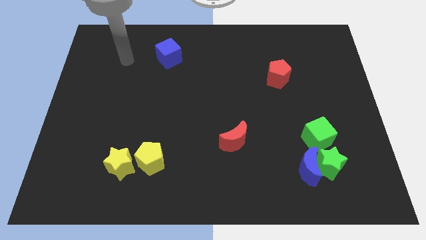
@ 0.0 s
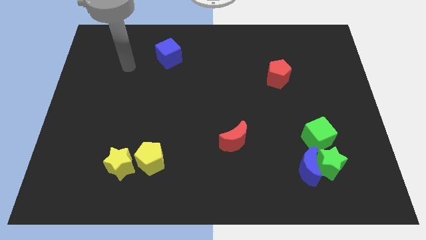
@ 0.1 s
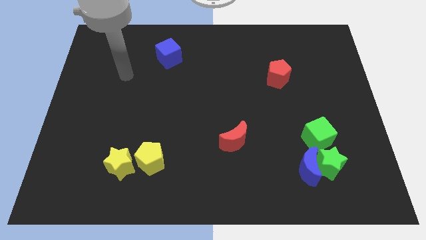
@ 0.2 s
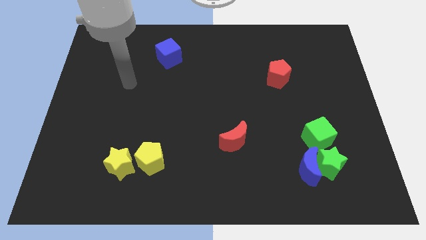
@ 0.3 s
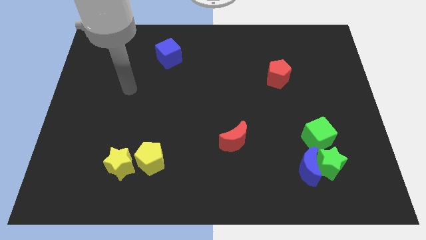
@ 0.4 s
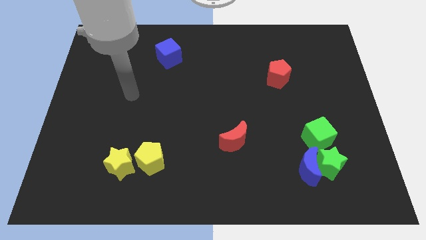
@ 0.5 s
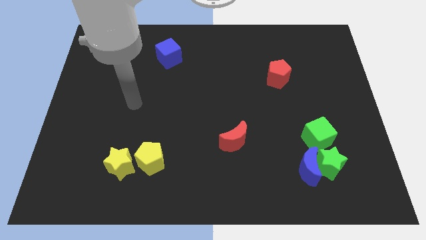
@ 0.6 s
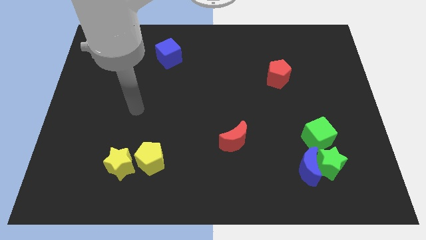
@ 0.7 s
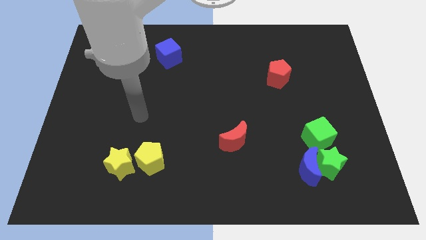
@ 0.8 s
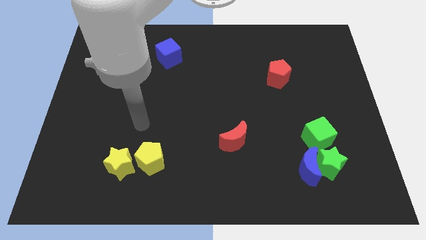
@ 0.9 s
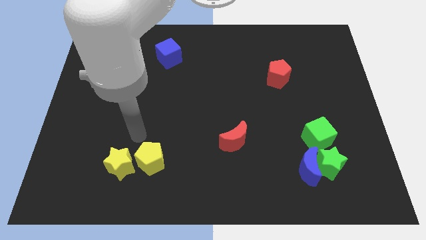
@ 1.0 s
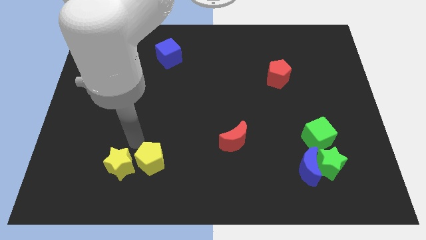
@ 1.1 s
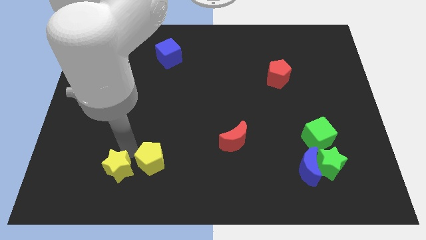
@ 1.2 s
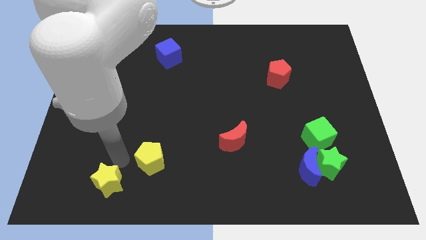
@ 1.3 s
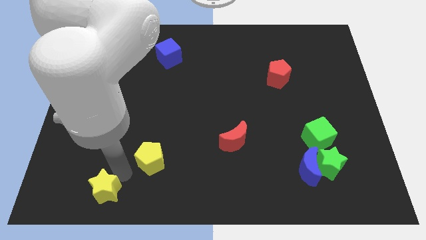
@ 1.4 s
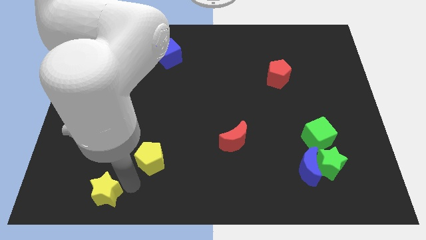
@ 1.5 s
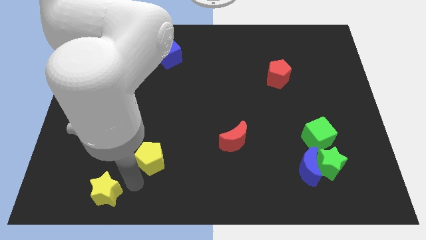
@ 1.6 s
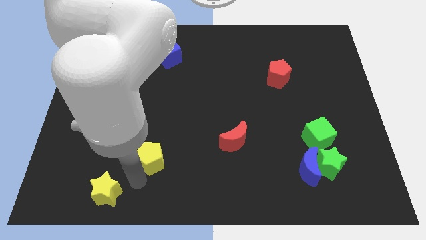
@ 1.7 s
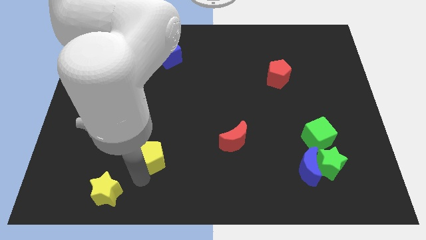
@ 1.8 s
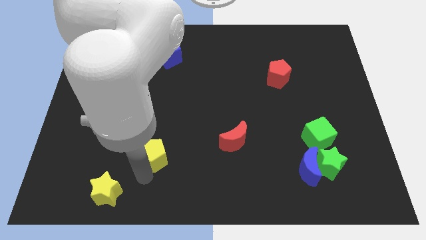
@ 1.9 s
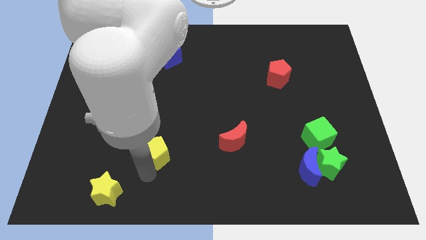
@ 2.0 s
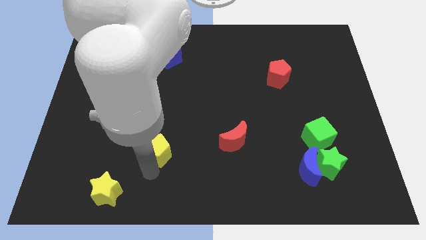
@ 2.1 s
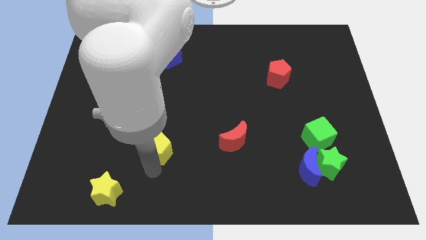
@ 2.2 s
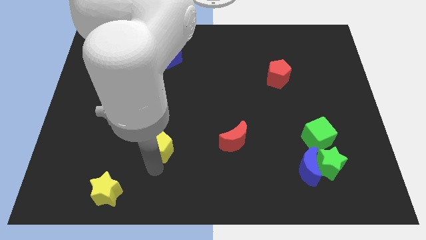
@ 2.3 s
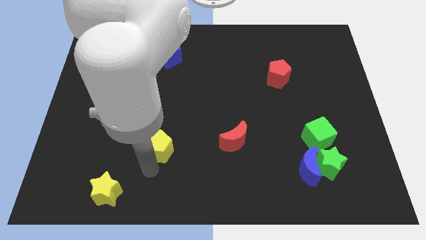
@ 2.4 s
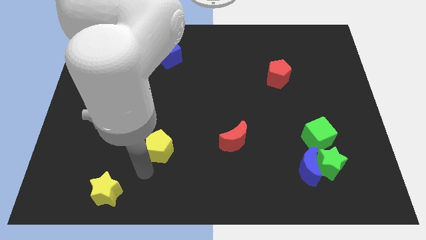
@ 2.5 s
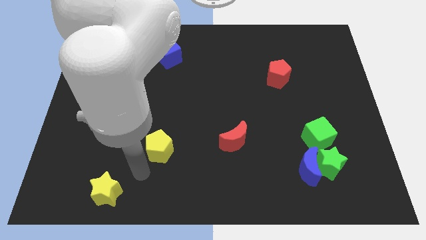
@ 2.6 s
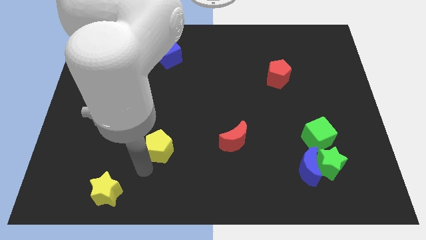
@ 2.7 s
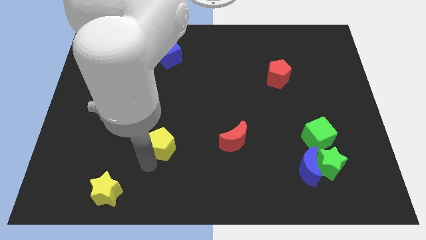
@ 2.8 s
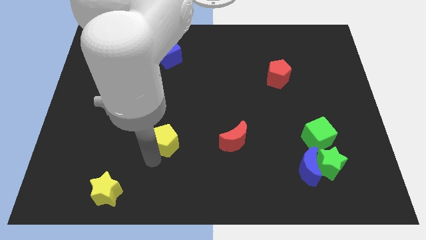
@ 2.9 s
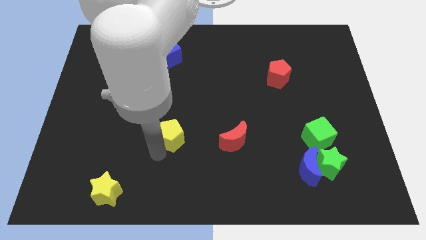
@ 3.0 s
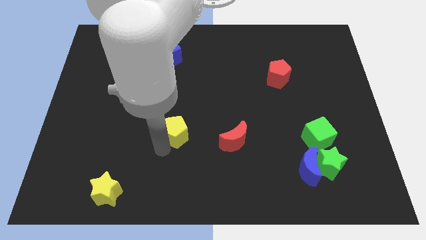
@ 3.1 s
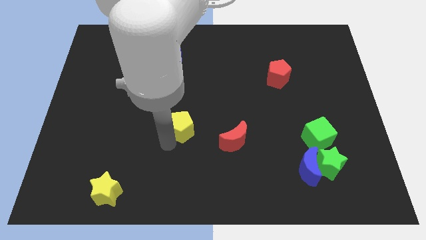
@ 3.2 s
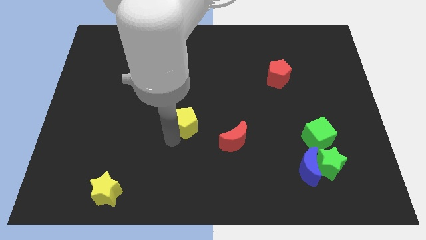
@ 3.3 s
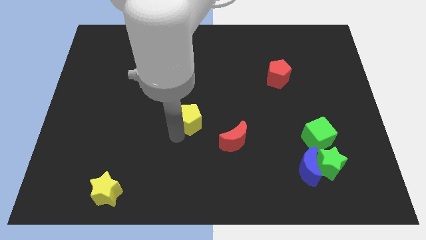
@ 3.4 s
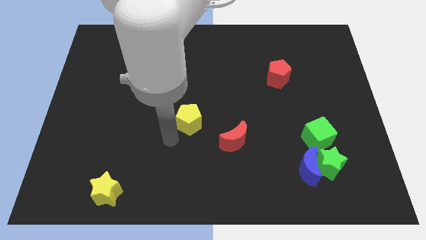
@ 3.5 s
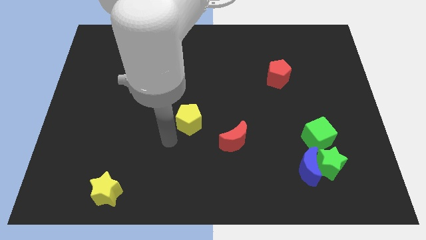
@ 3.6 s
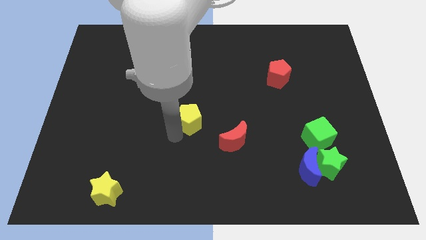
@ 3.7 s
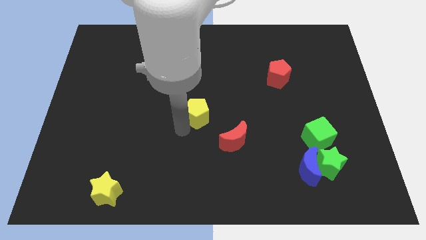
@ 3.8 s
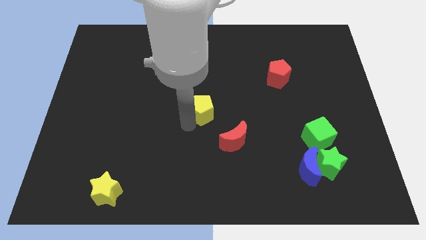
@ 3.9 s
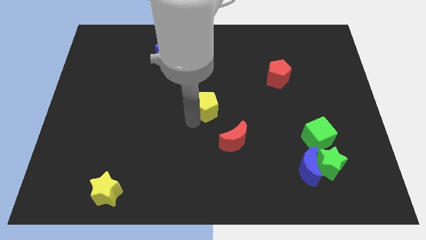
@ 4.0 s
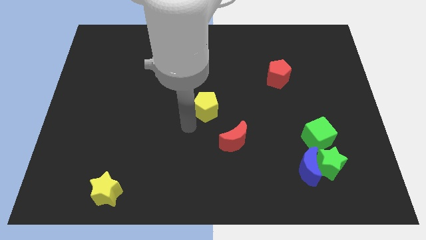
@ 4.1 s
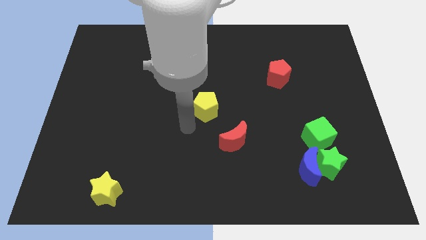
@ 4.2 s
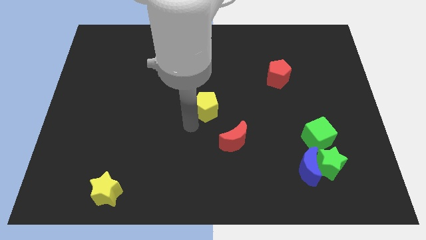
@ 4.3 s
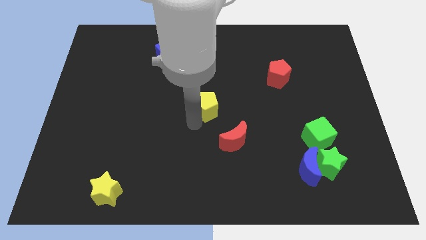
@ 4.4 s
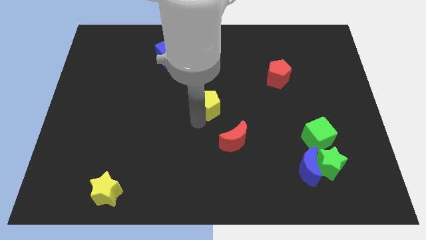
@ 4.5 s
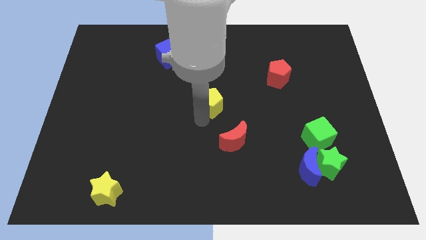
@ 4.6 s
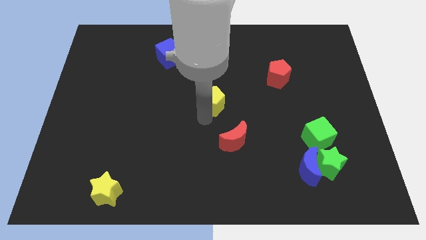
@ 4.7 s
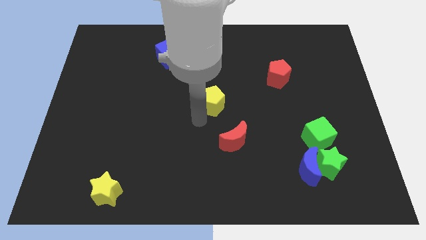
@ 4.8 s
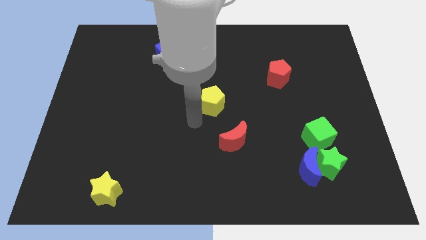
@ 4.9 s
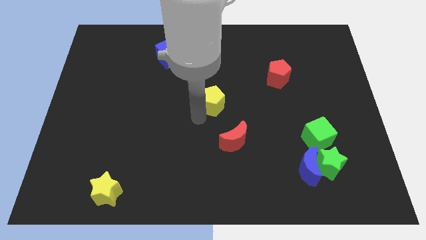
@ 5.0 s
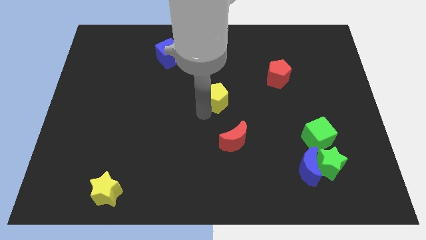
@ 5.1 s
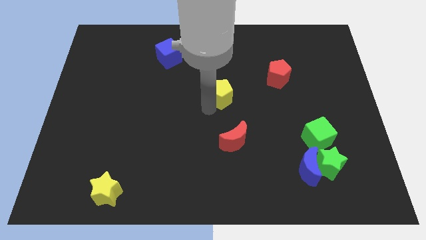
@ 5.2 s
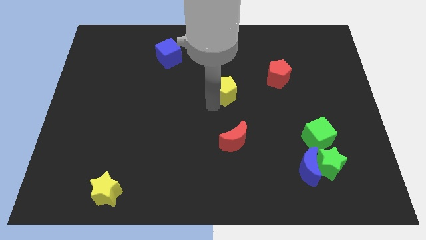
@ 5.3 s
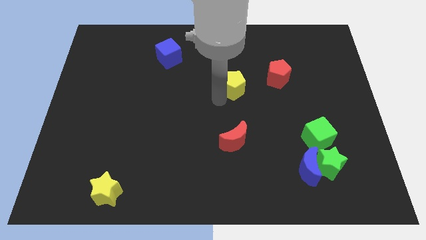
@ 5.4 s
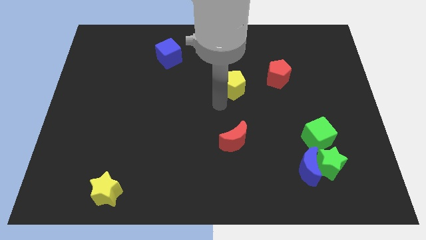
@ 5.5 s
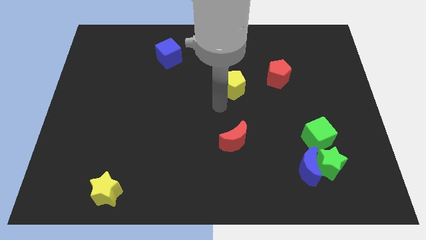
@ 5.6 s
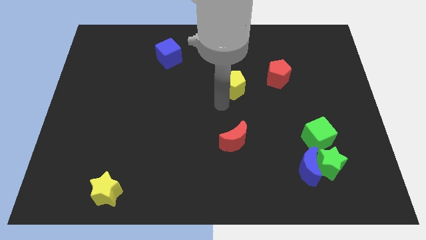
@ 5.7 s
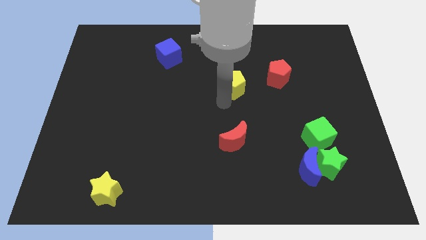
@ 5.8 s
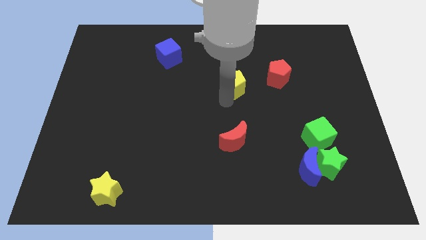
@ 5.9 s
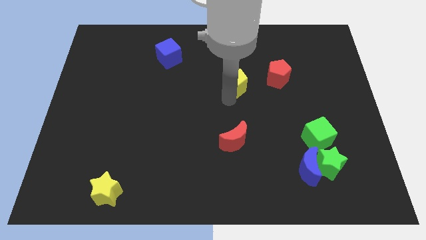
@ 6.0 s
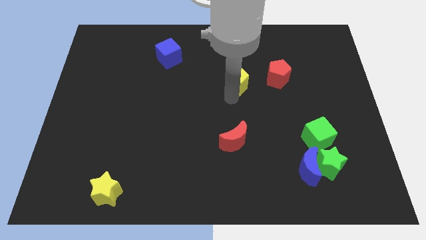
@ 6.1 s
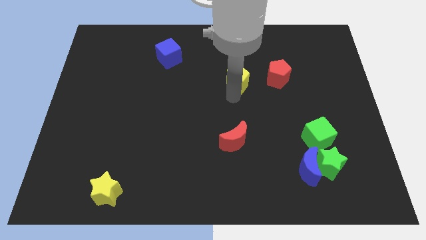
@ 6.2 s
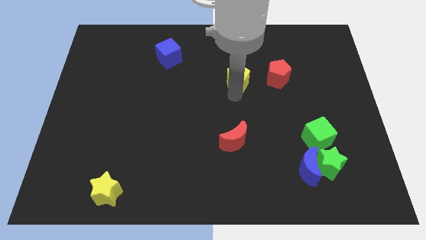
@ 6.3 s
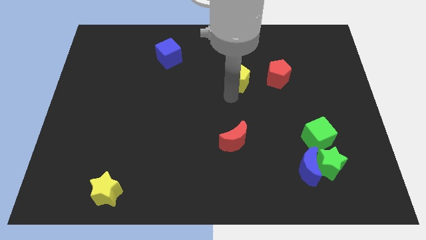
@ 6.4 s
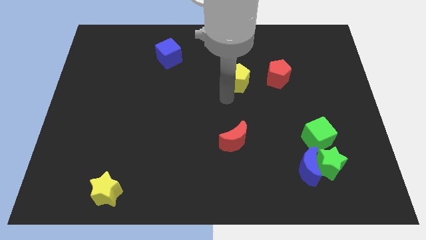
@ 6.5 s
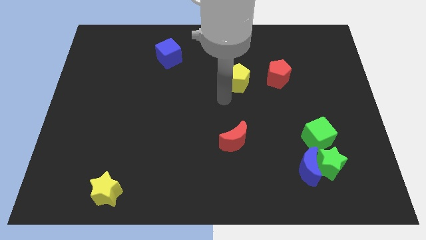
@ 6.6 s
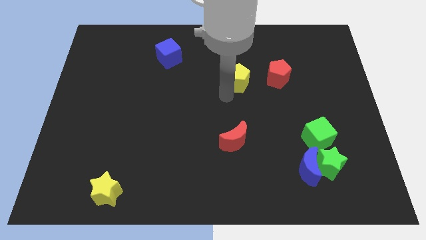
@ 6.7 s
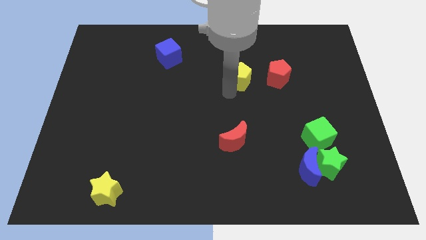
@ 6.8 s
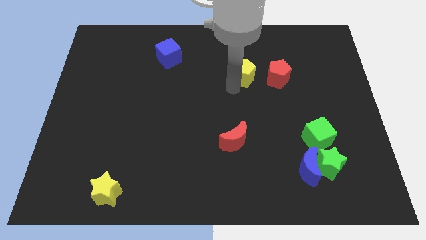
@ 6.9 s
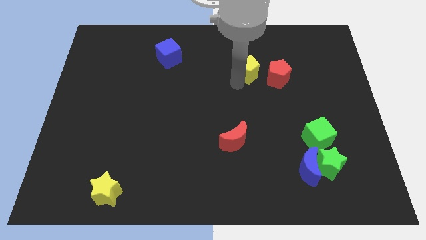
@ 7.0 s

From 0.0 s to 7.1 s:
put the yellow pentagon to the top left side of the red pentagon

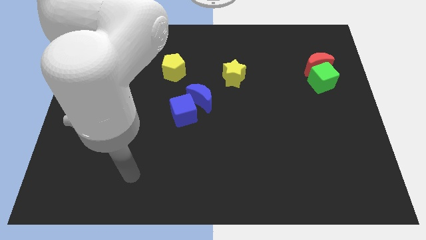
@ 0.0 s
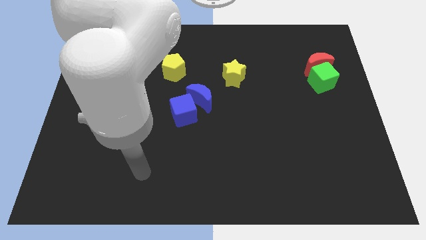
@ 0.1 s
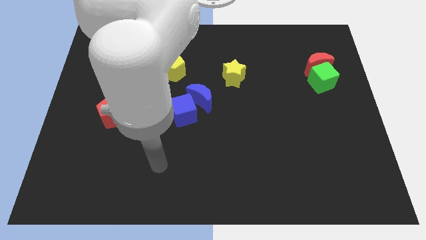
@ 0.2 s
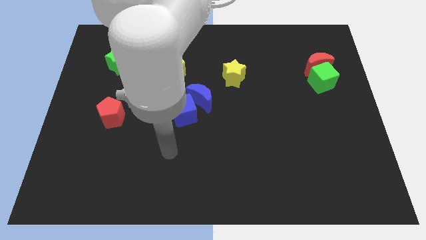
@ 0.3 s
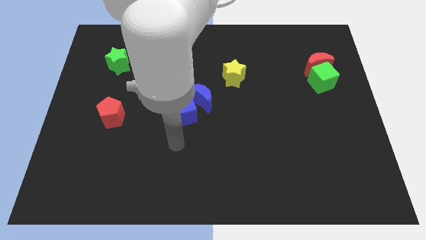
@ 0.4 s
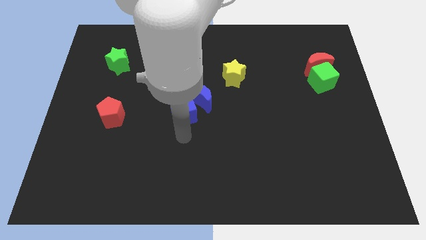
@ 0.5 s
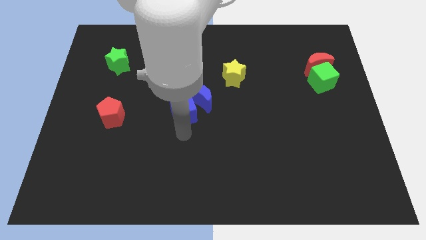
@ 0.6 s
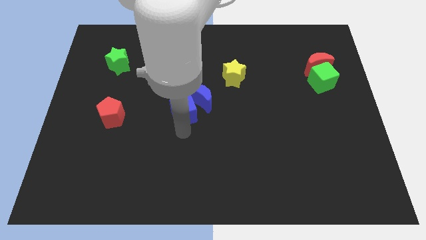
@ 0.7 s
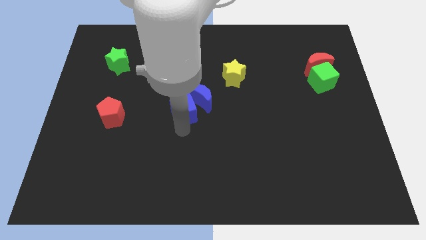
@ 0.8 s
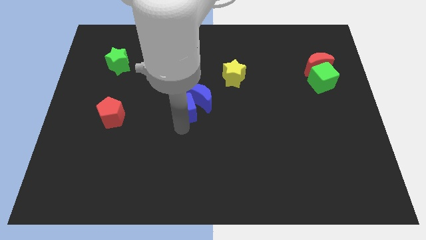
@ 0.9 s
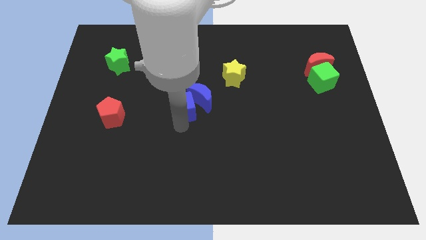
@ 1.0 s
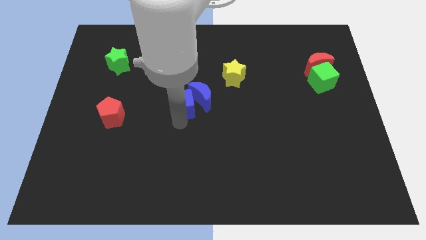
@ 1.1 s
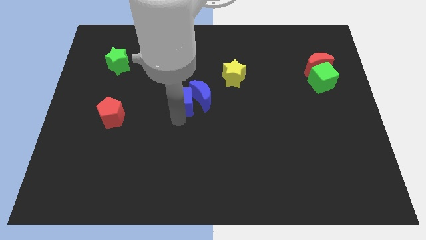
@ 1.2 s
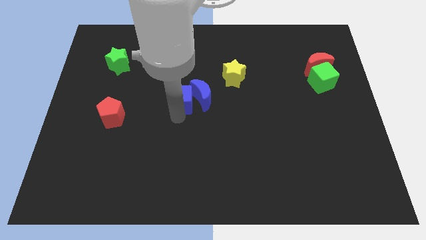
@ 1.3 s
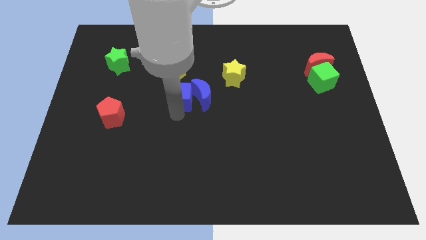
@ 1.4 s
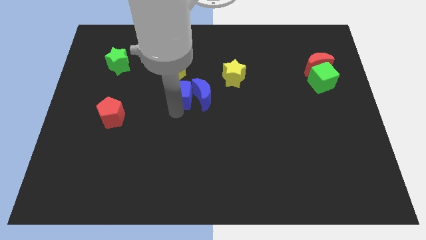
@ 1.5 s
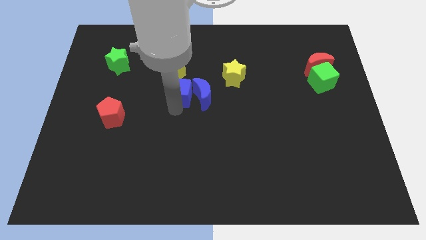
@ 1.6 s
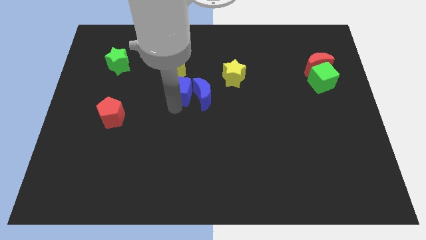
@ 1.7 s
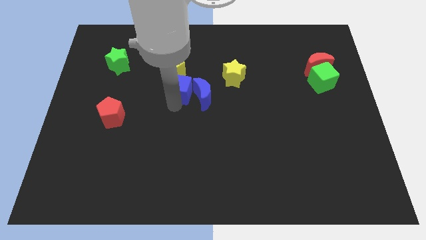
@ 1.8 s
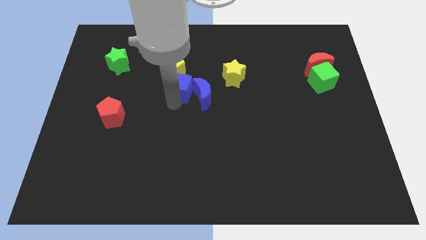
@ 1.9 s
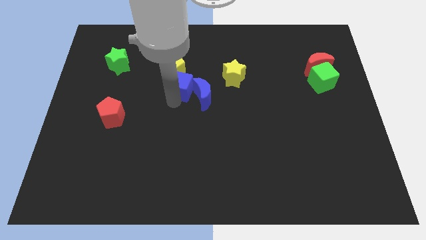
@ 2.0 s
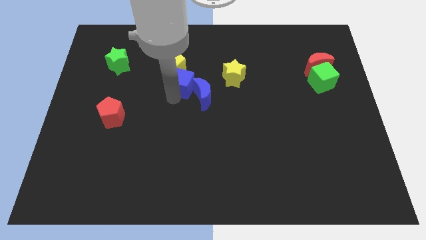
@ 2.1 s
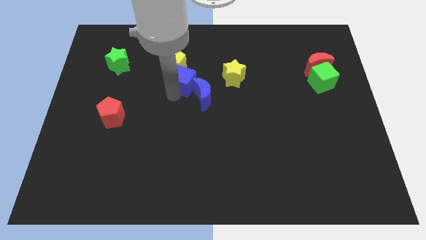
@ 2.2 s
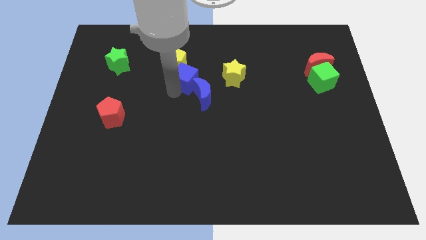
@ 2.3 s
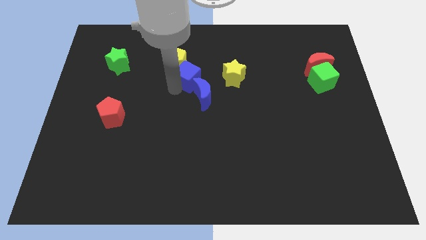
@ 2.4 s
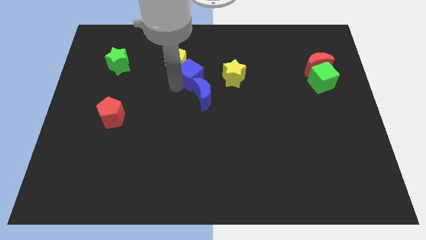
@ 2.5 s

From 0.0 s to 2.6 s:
push the blue cube just right of the yellow pentagon
